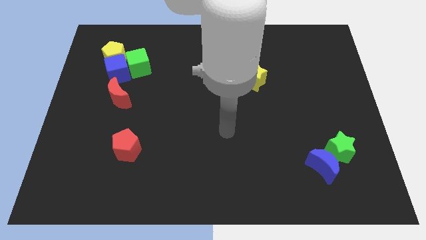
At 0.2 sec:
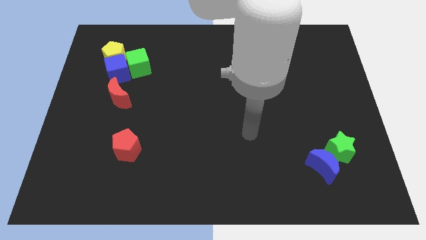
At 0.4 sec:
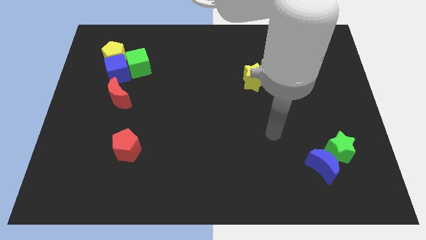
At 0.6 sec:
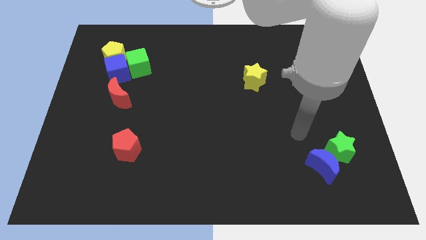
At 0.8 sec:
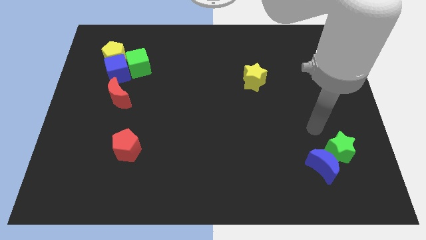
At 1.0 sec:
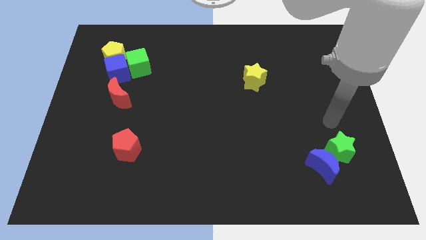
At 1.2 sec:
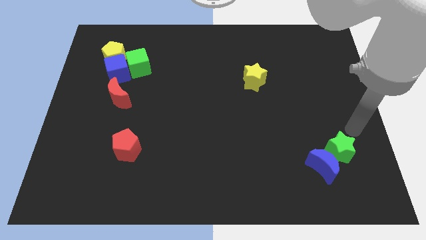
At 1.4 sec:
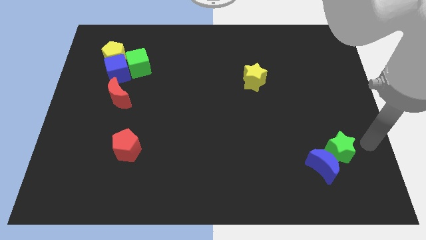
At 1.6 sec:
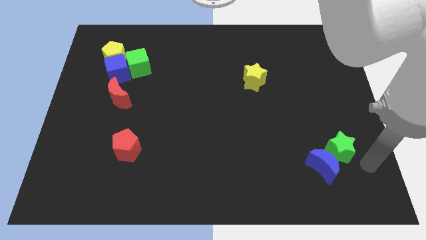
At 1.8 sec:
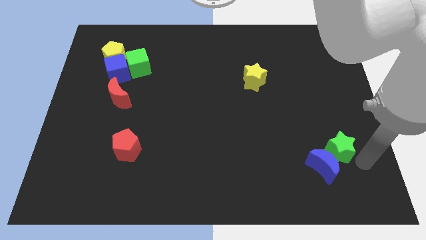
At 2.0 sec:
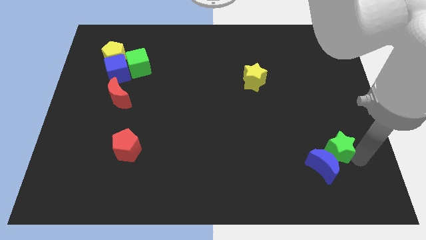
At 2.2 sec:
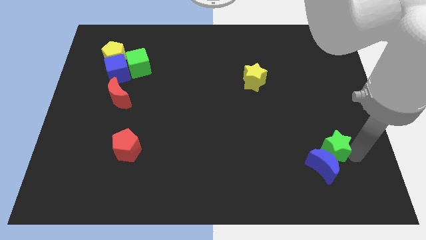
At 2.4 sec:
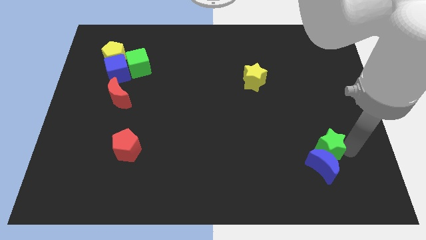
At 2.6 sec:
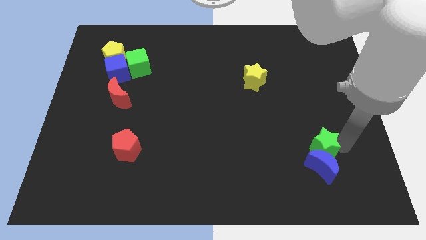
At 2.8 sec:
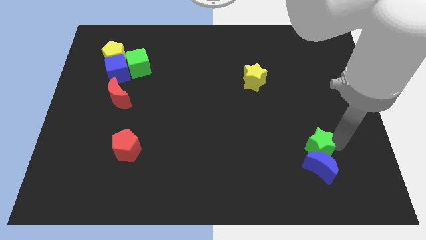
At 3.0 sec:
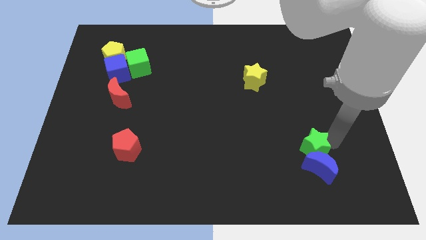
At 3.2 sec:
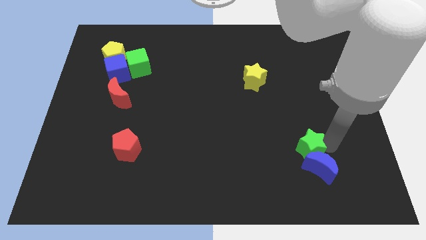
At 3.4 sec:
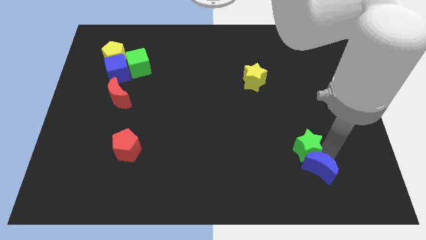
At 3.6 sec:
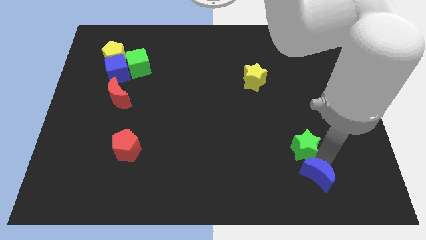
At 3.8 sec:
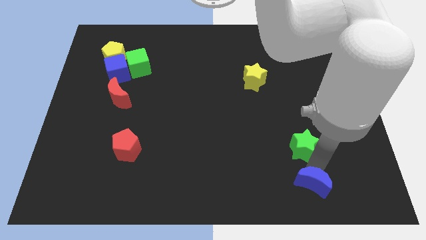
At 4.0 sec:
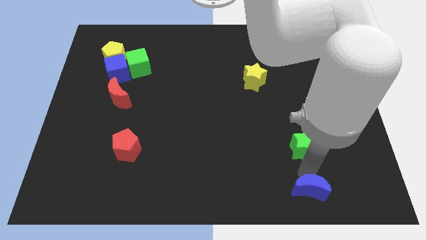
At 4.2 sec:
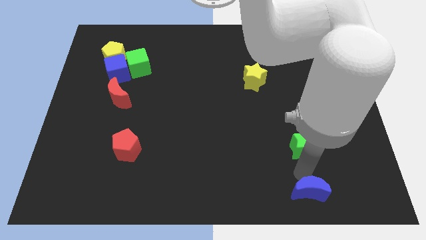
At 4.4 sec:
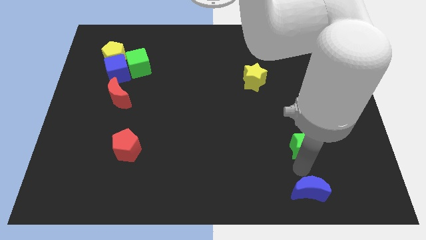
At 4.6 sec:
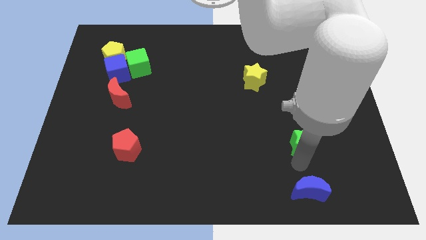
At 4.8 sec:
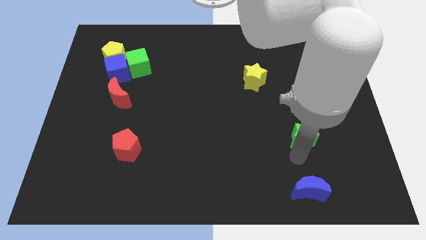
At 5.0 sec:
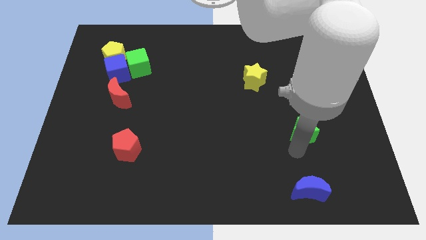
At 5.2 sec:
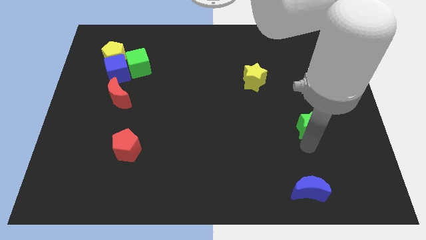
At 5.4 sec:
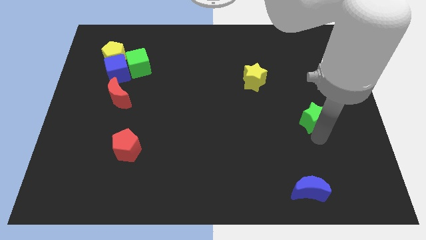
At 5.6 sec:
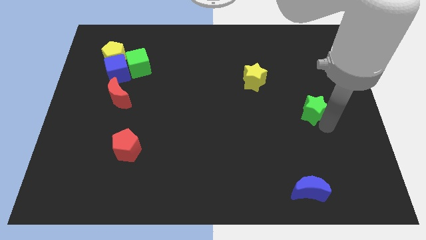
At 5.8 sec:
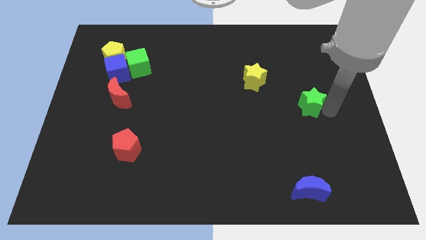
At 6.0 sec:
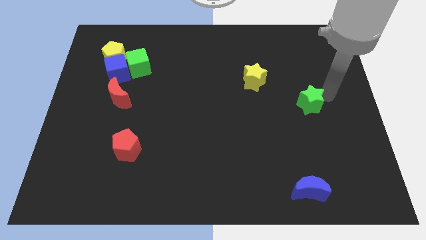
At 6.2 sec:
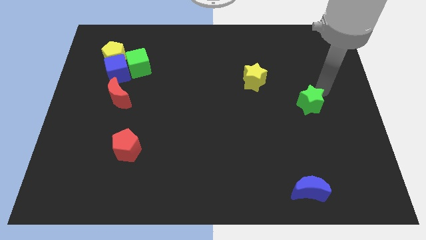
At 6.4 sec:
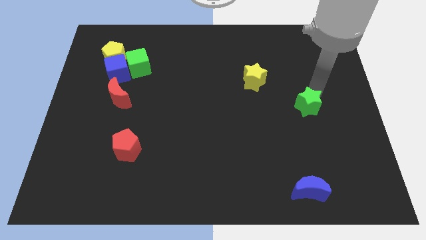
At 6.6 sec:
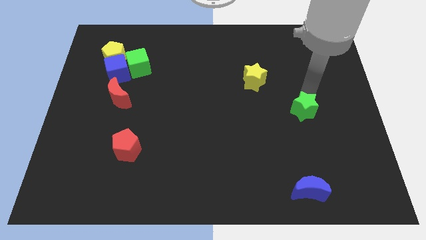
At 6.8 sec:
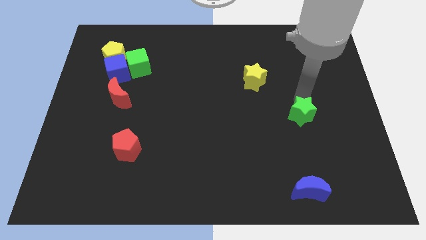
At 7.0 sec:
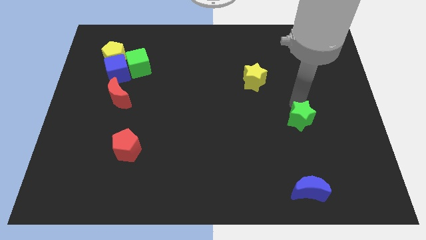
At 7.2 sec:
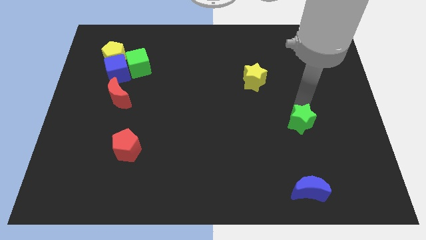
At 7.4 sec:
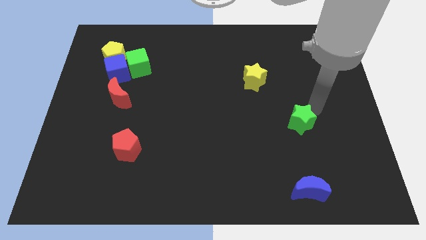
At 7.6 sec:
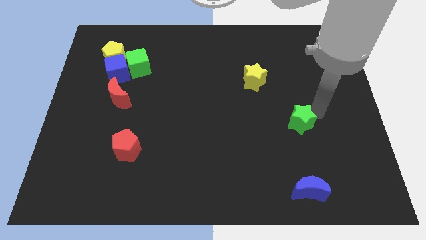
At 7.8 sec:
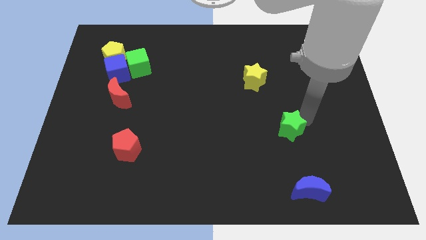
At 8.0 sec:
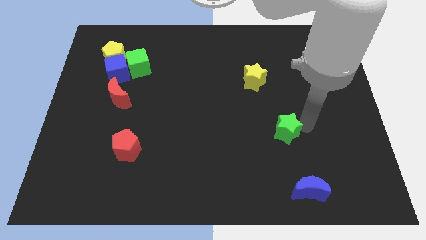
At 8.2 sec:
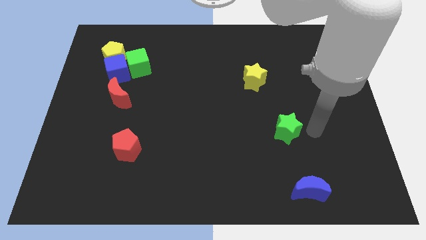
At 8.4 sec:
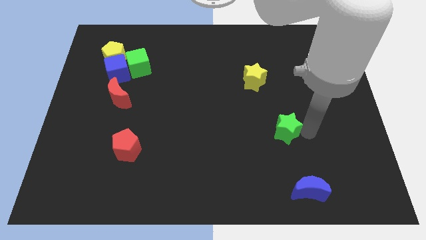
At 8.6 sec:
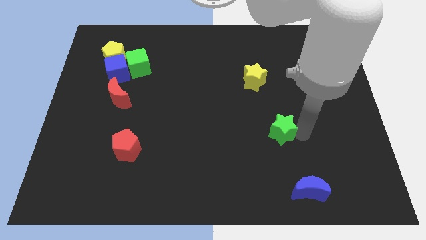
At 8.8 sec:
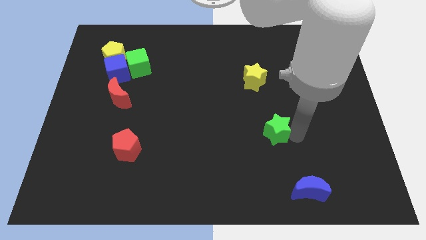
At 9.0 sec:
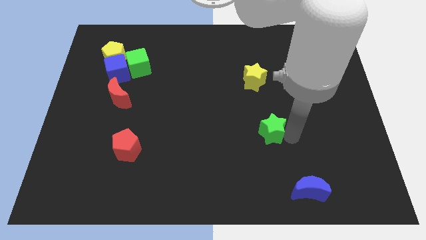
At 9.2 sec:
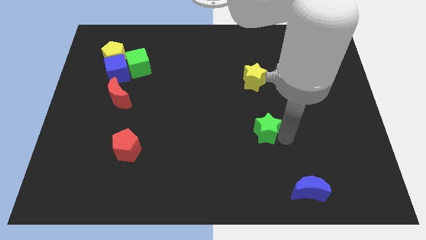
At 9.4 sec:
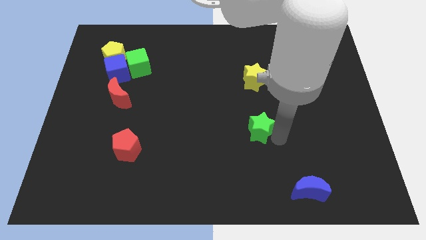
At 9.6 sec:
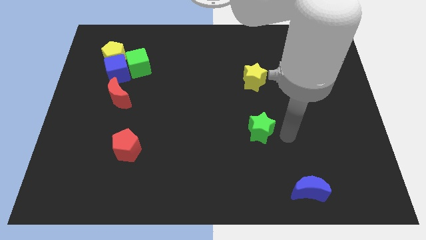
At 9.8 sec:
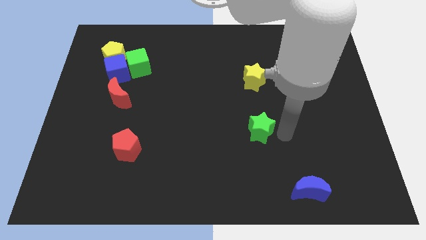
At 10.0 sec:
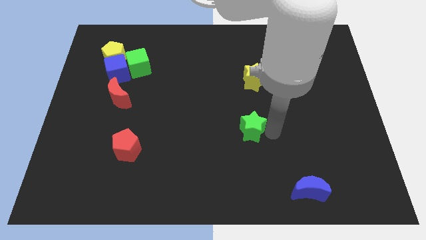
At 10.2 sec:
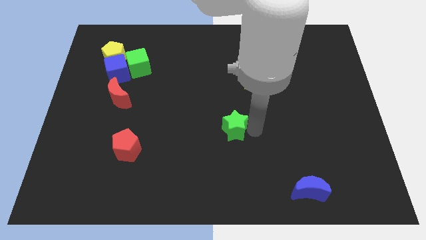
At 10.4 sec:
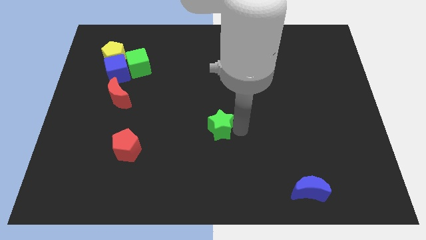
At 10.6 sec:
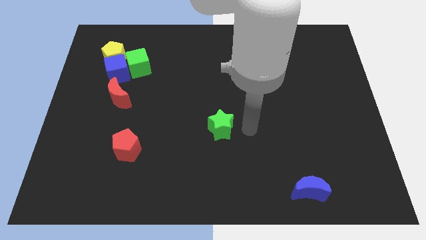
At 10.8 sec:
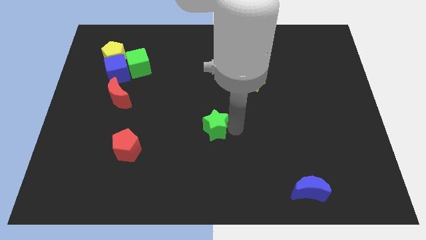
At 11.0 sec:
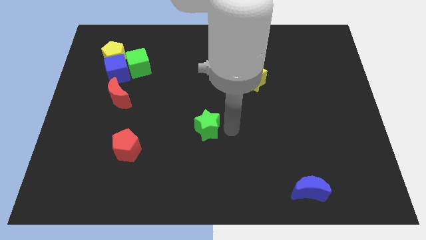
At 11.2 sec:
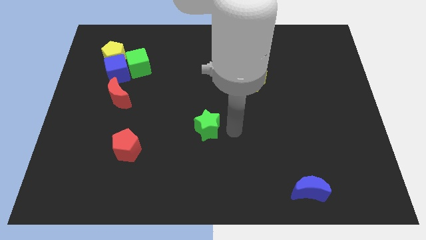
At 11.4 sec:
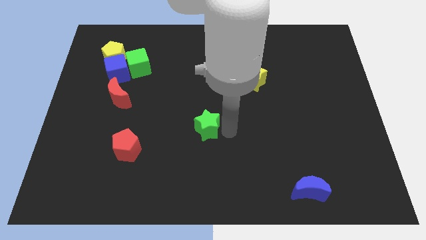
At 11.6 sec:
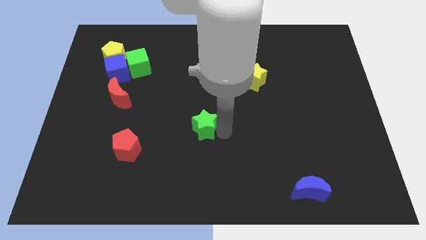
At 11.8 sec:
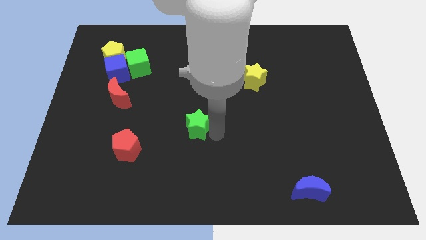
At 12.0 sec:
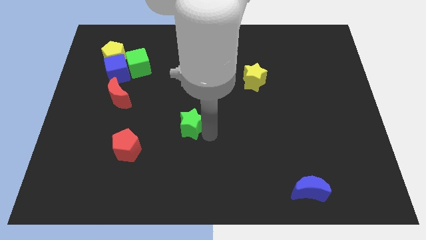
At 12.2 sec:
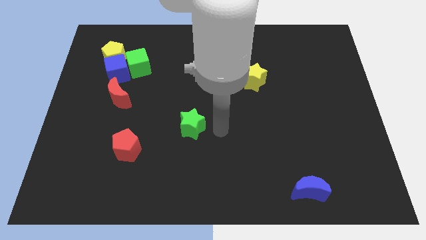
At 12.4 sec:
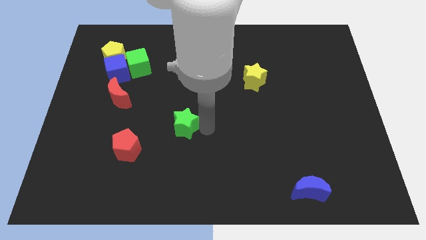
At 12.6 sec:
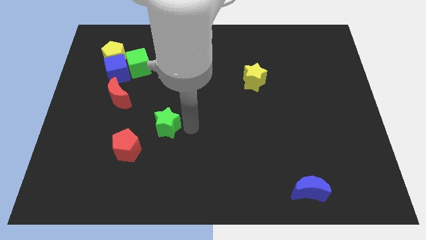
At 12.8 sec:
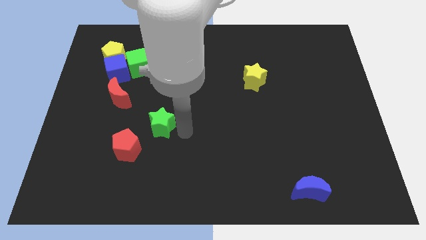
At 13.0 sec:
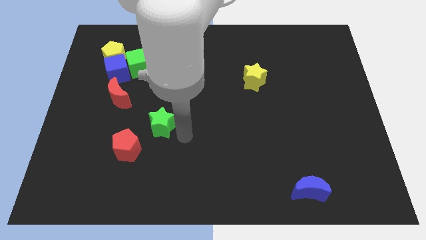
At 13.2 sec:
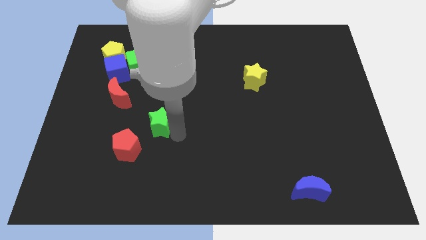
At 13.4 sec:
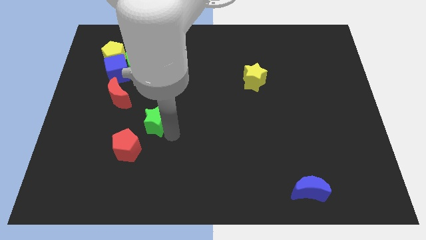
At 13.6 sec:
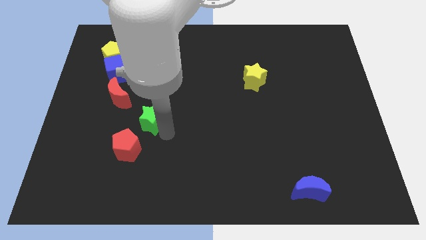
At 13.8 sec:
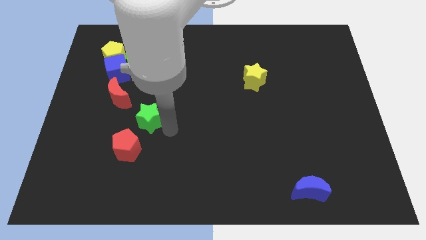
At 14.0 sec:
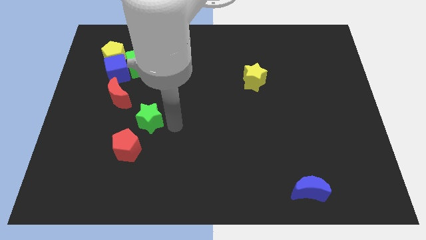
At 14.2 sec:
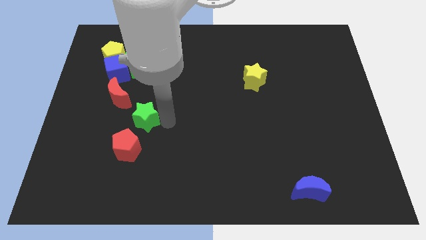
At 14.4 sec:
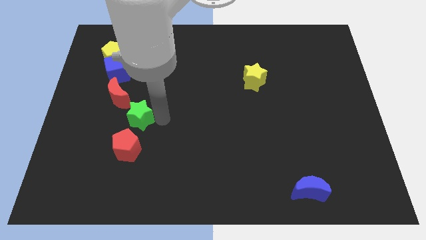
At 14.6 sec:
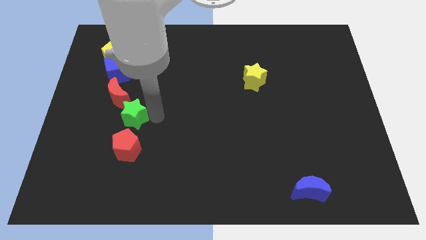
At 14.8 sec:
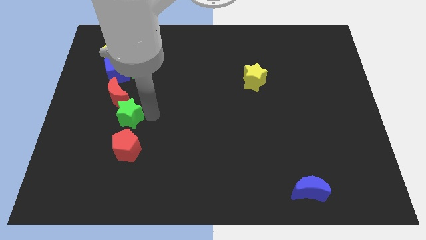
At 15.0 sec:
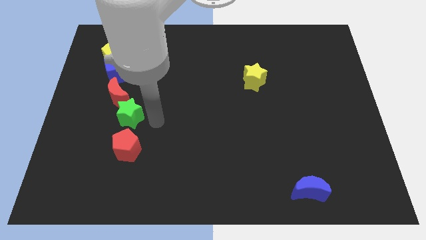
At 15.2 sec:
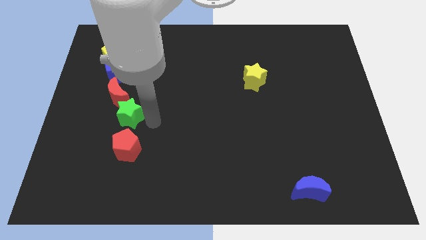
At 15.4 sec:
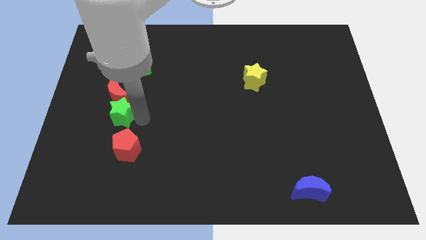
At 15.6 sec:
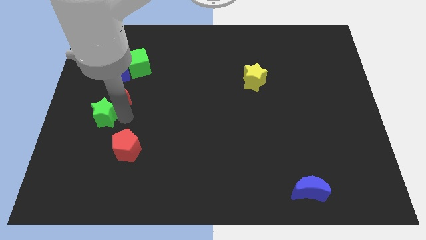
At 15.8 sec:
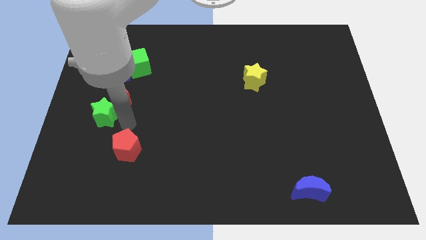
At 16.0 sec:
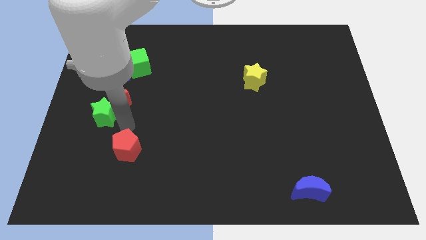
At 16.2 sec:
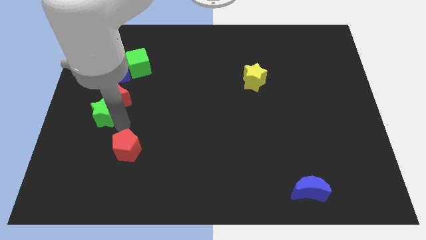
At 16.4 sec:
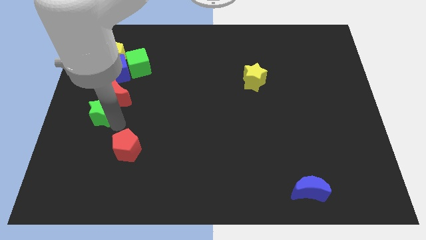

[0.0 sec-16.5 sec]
move the green star to the center left
